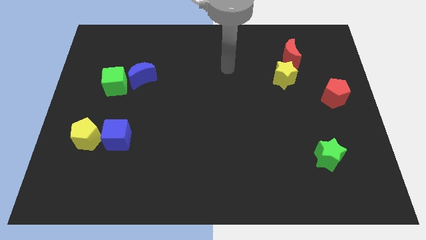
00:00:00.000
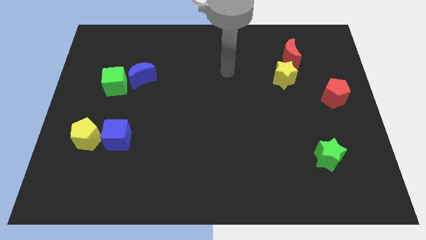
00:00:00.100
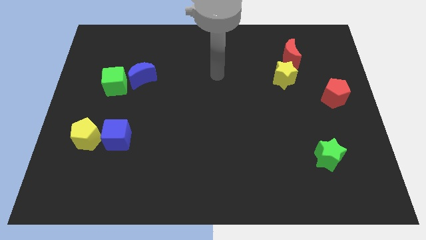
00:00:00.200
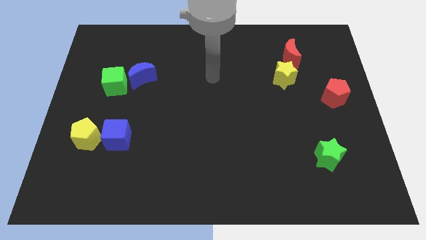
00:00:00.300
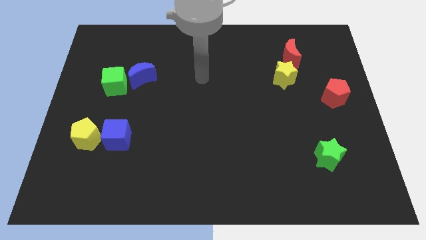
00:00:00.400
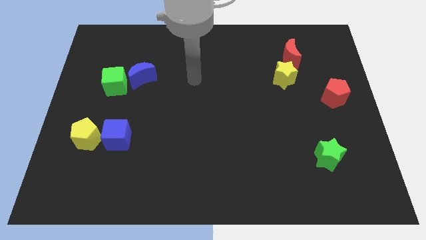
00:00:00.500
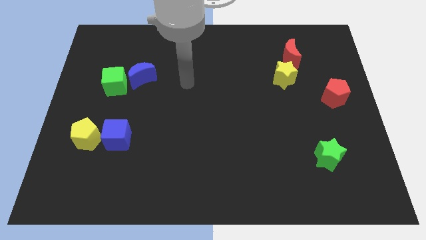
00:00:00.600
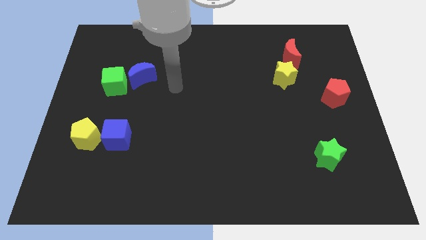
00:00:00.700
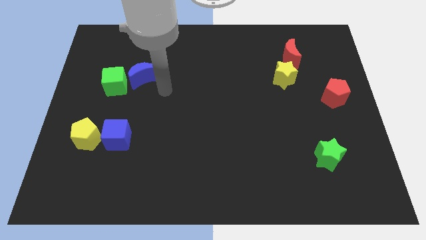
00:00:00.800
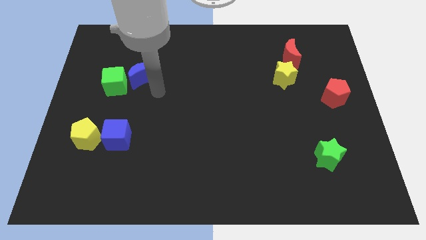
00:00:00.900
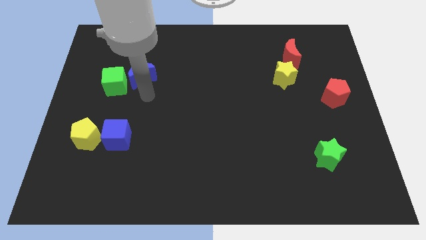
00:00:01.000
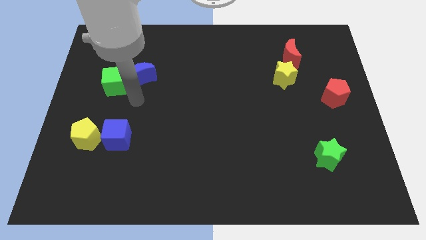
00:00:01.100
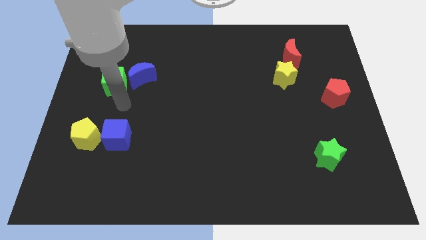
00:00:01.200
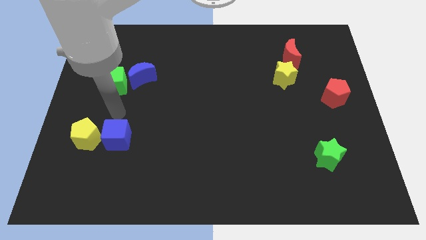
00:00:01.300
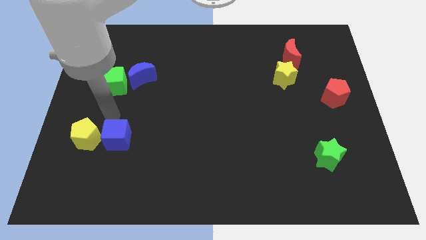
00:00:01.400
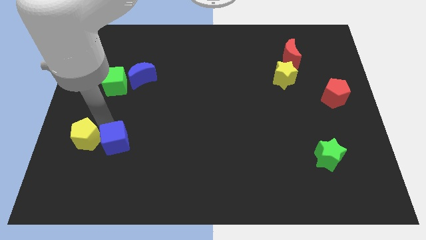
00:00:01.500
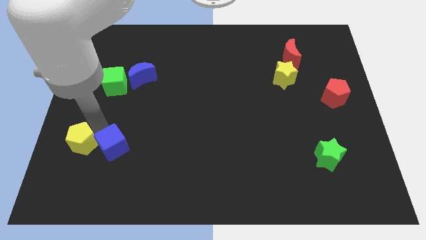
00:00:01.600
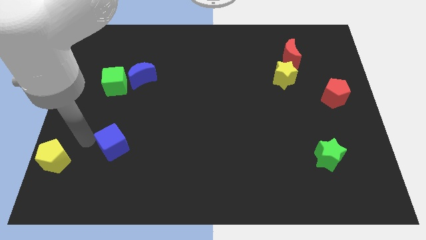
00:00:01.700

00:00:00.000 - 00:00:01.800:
pull the blue cube apart from the yellow pentagon

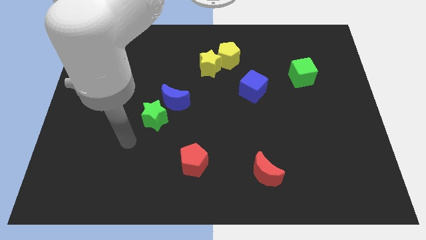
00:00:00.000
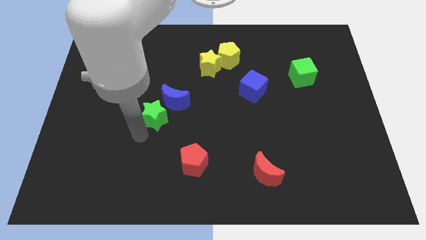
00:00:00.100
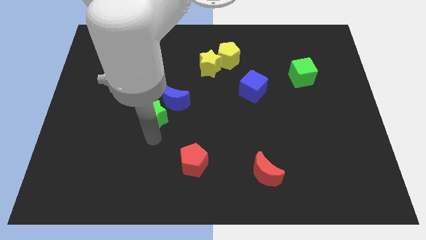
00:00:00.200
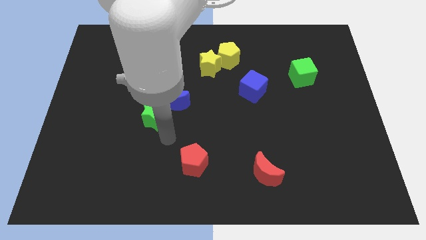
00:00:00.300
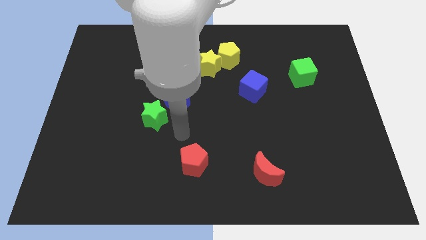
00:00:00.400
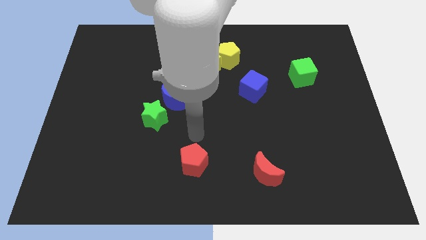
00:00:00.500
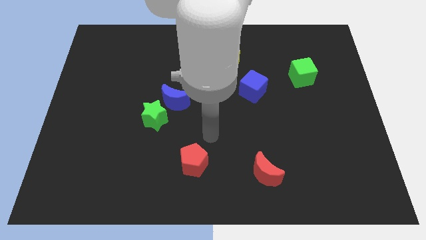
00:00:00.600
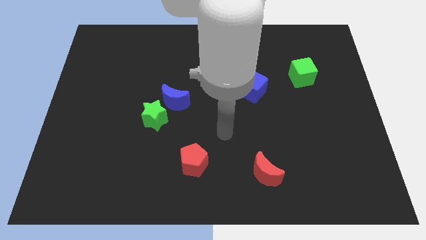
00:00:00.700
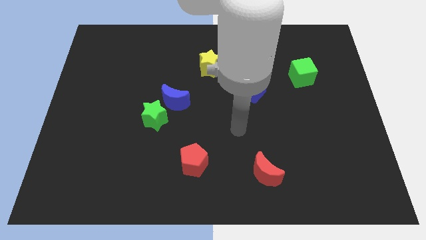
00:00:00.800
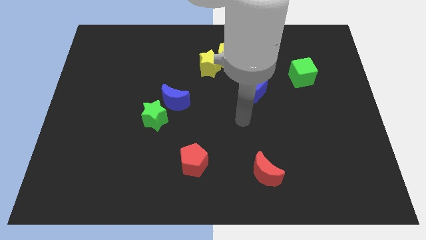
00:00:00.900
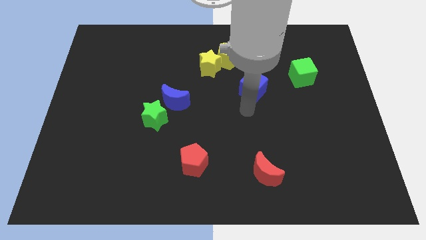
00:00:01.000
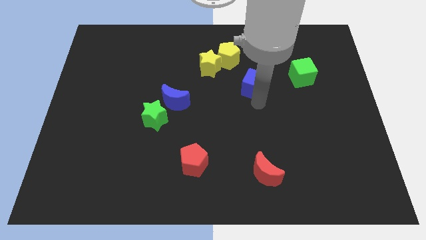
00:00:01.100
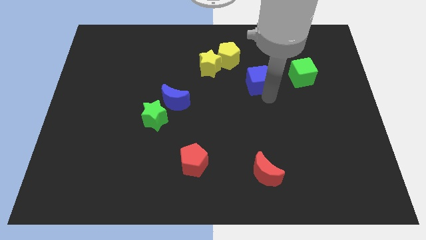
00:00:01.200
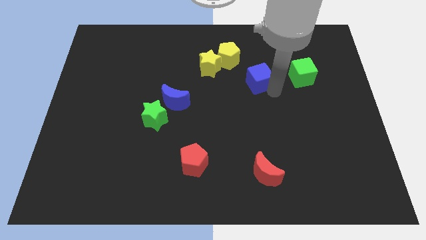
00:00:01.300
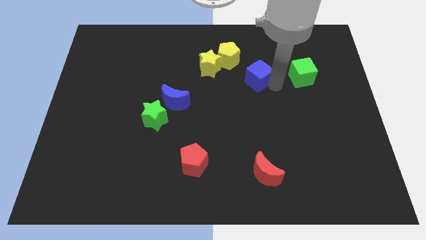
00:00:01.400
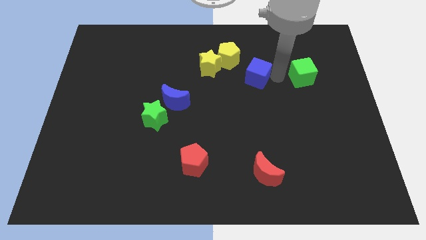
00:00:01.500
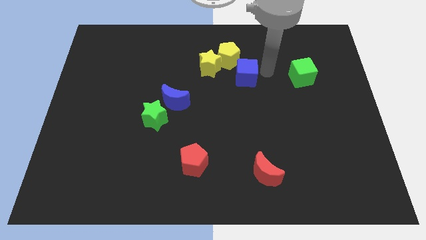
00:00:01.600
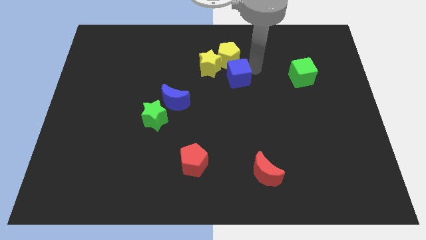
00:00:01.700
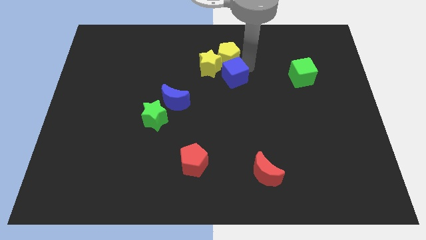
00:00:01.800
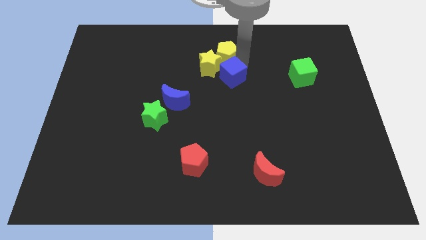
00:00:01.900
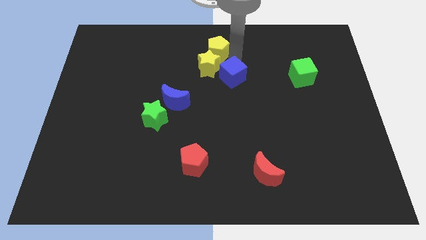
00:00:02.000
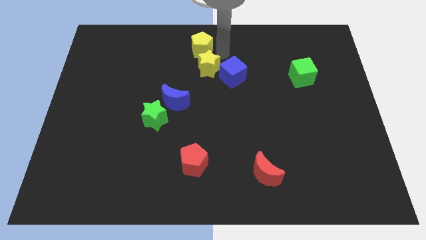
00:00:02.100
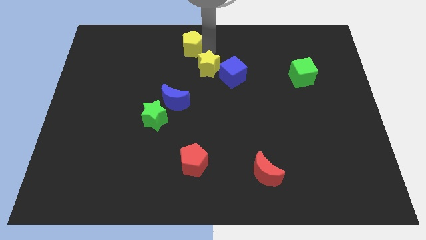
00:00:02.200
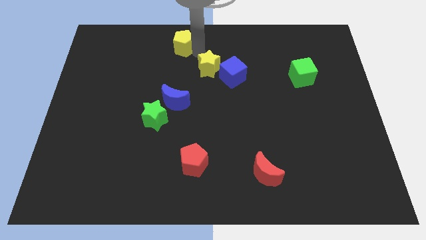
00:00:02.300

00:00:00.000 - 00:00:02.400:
separate the yellow star from the yellow pentagon

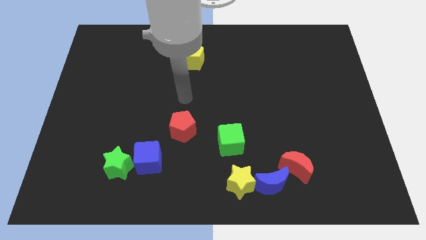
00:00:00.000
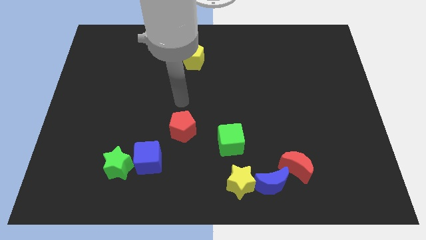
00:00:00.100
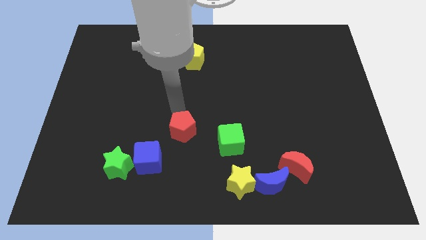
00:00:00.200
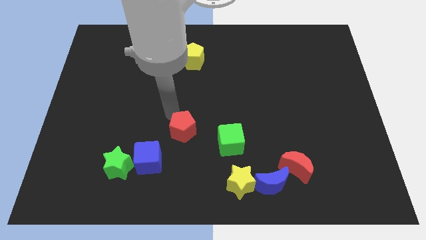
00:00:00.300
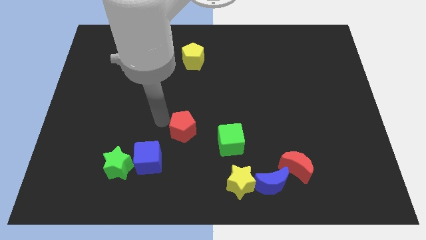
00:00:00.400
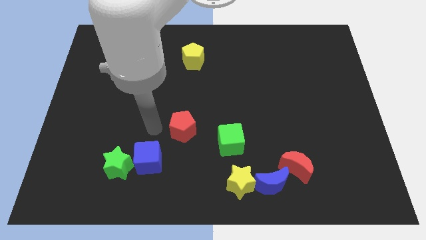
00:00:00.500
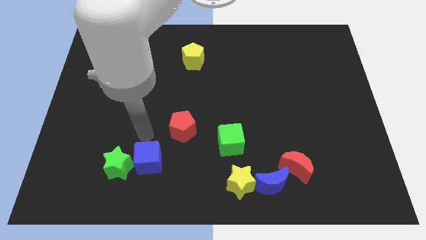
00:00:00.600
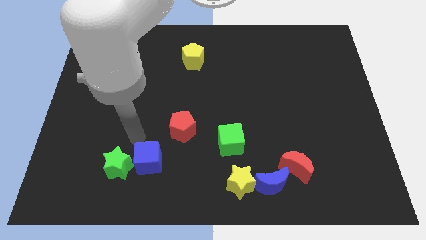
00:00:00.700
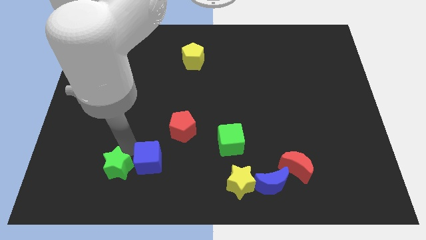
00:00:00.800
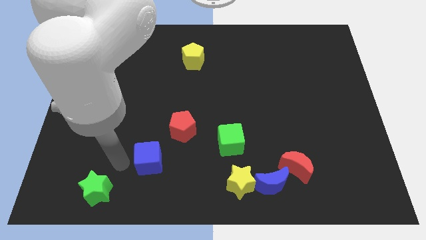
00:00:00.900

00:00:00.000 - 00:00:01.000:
move the blue cube away from the green star

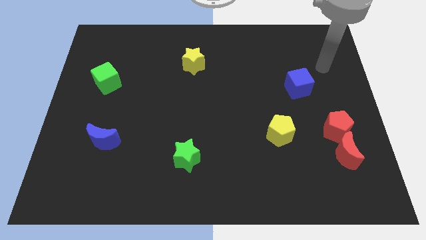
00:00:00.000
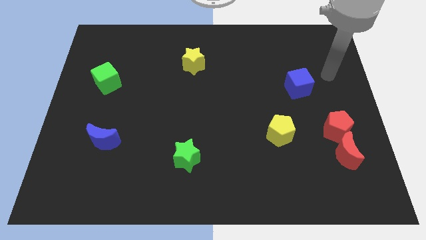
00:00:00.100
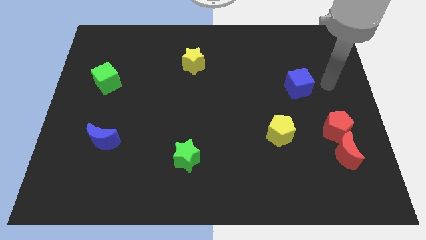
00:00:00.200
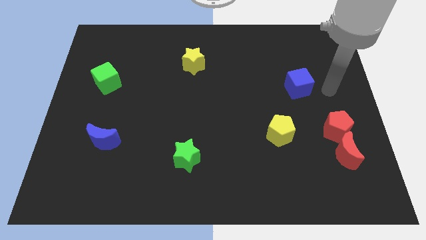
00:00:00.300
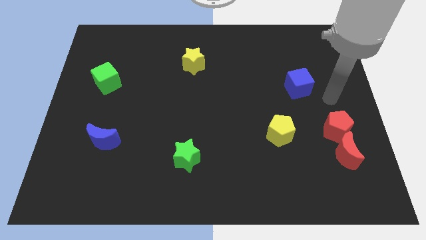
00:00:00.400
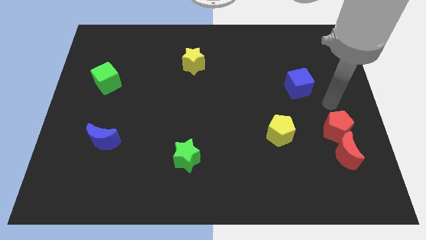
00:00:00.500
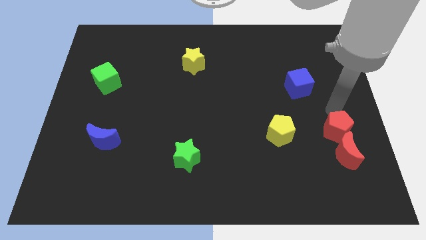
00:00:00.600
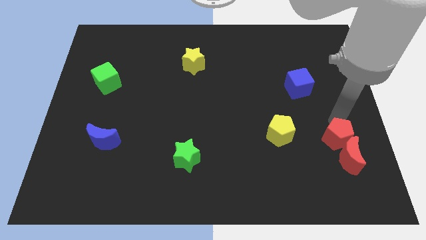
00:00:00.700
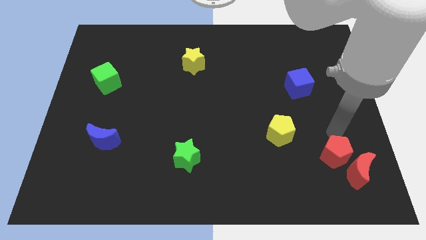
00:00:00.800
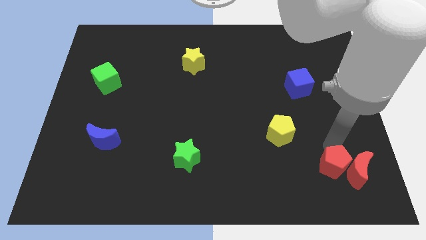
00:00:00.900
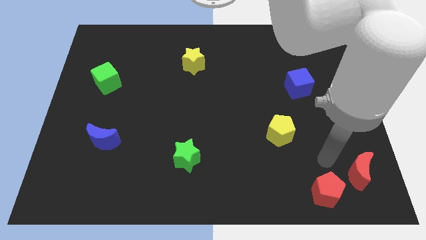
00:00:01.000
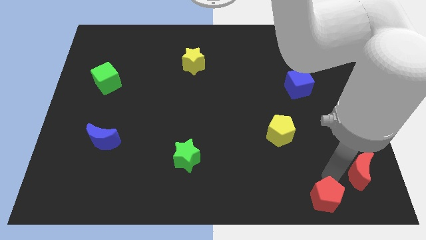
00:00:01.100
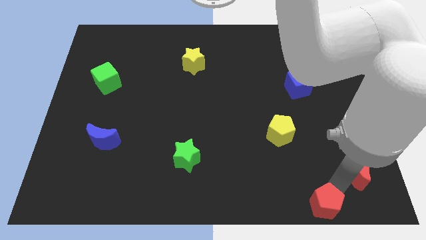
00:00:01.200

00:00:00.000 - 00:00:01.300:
pull the red moon apart from the red pentagon

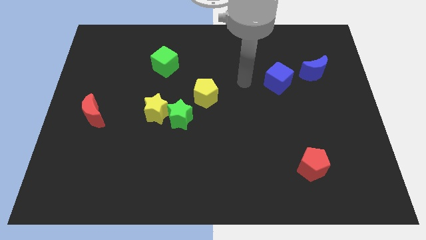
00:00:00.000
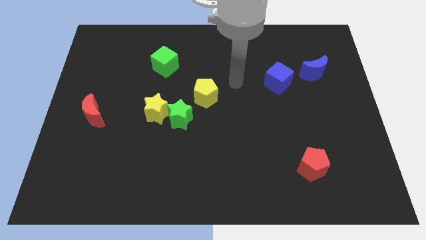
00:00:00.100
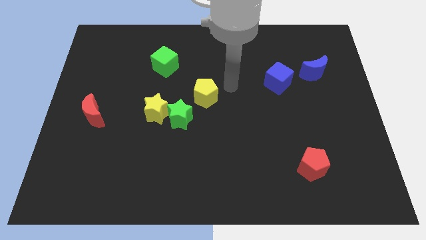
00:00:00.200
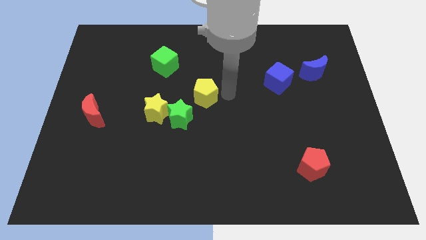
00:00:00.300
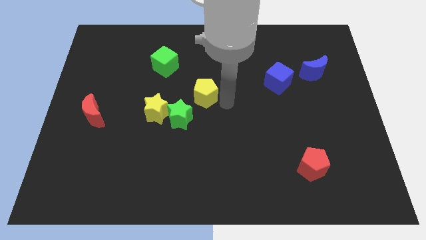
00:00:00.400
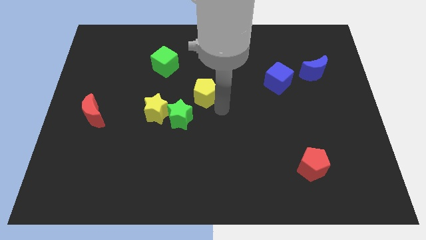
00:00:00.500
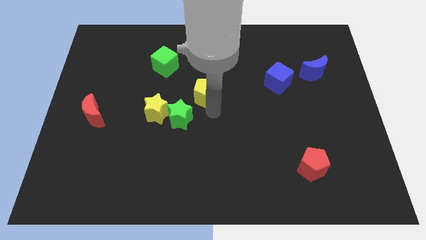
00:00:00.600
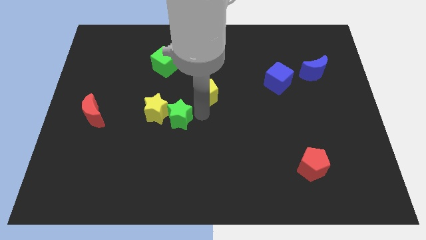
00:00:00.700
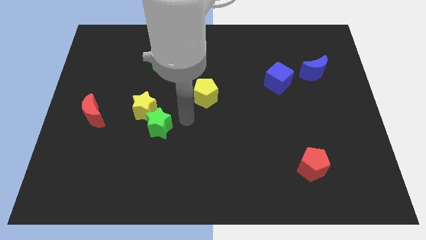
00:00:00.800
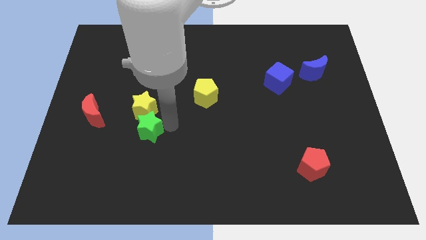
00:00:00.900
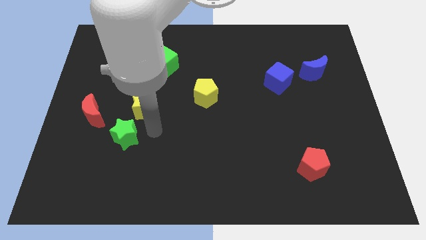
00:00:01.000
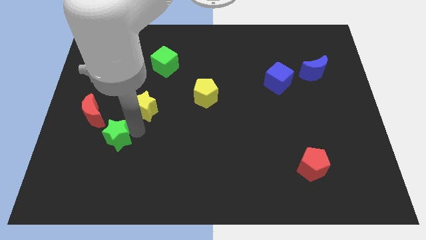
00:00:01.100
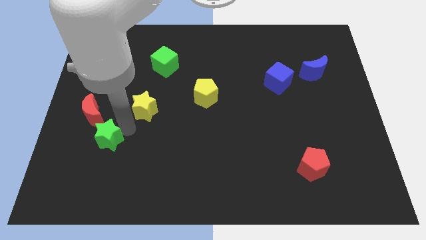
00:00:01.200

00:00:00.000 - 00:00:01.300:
move the yellow star away from the green star

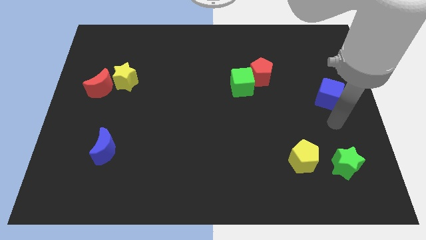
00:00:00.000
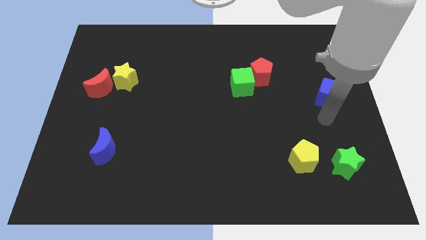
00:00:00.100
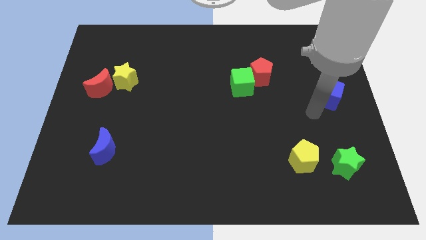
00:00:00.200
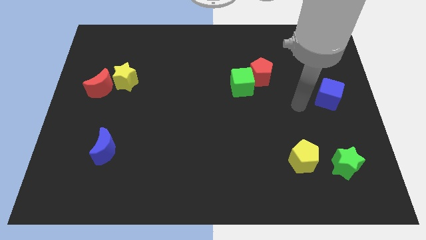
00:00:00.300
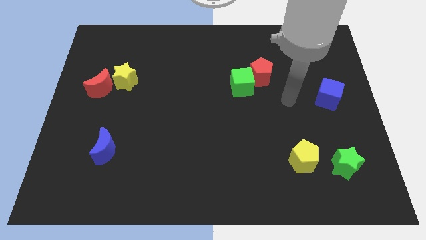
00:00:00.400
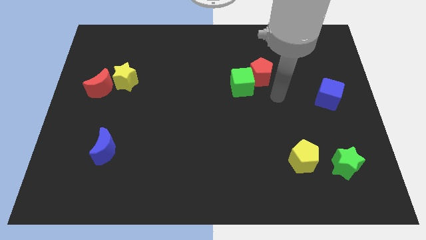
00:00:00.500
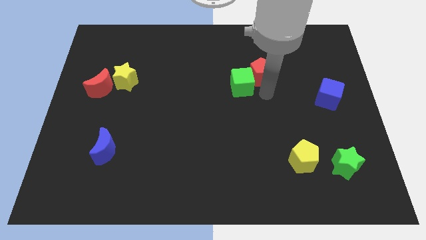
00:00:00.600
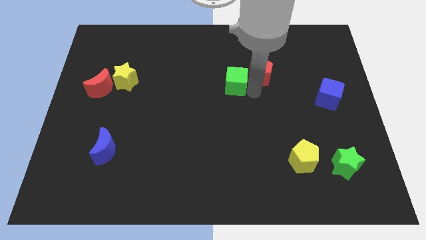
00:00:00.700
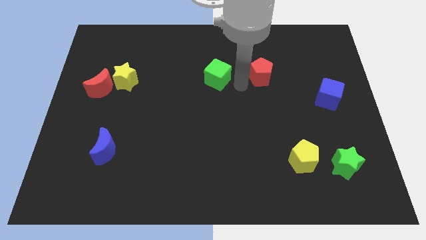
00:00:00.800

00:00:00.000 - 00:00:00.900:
pull the red pentagon apart from the green cube

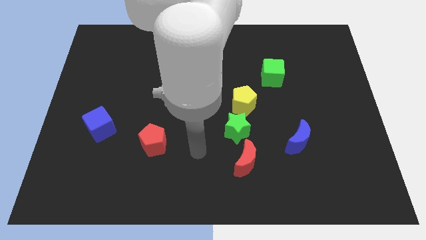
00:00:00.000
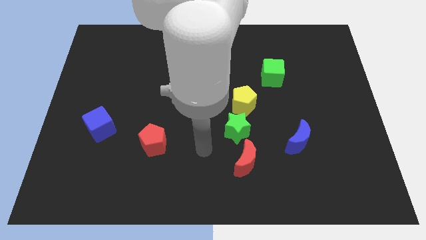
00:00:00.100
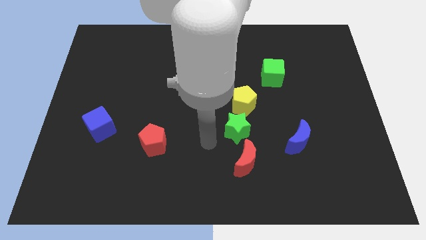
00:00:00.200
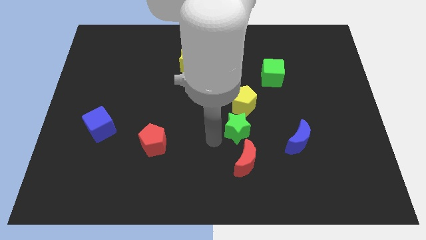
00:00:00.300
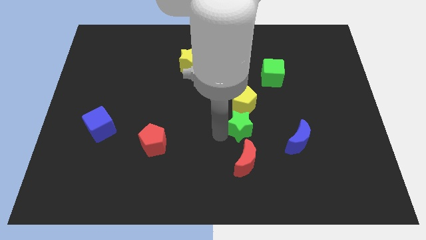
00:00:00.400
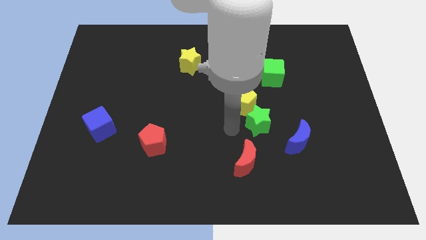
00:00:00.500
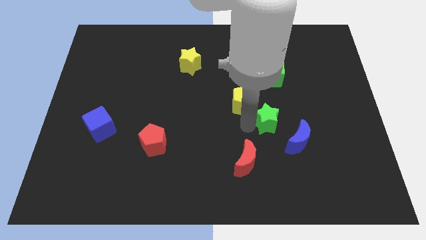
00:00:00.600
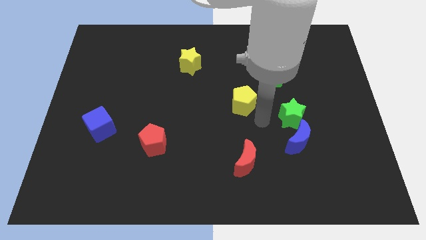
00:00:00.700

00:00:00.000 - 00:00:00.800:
pull the yellow pentagon apart from the green star
